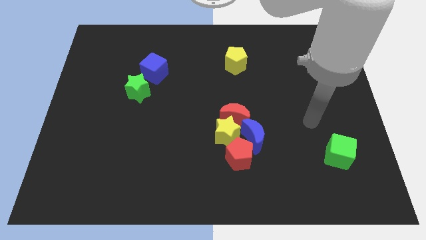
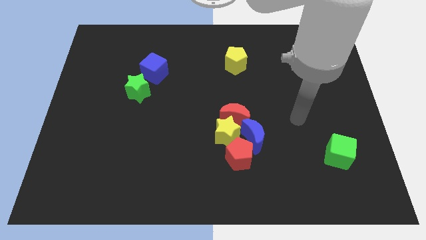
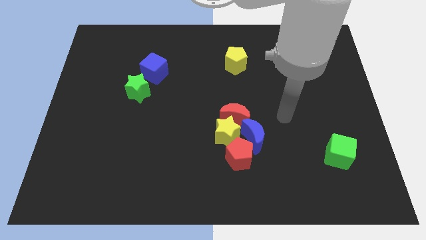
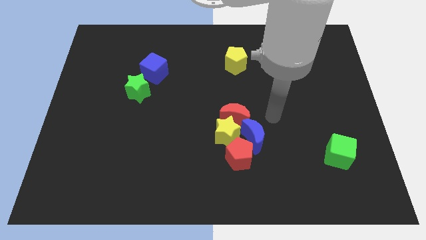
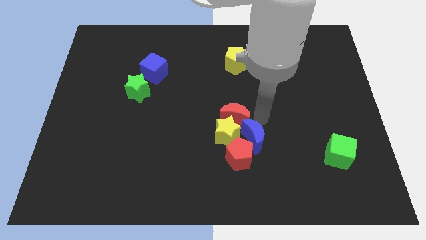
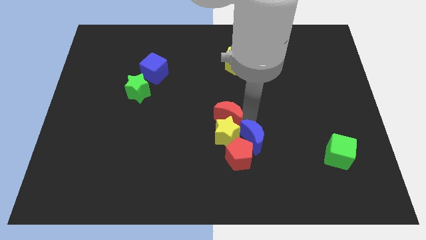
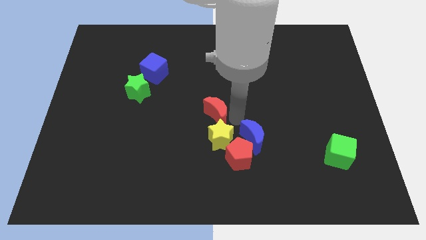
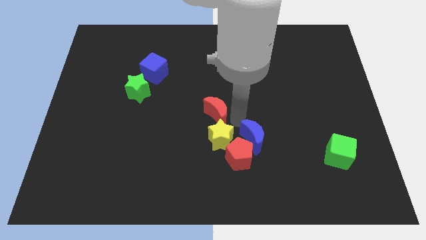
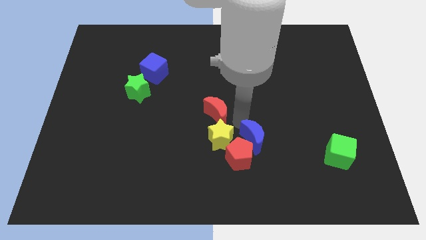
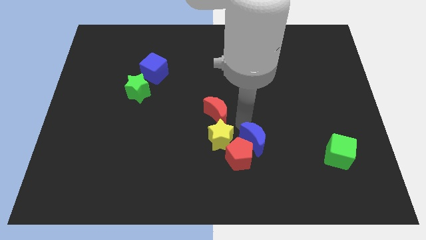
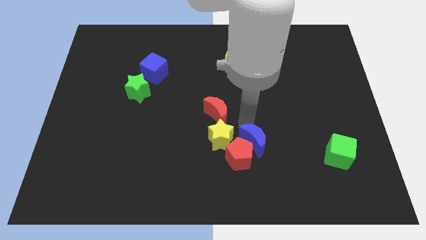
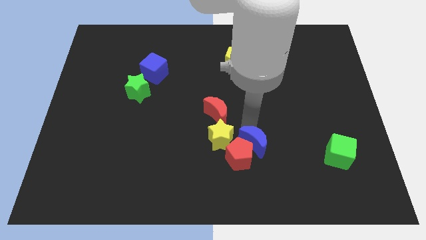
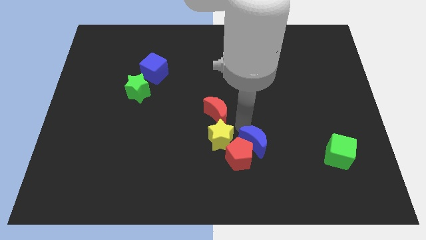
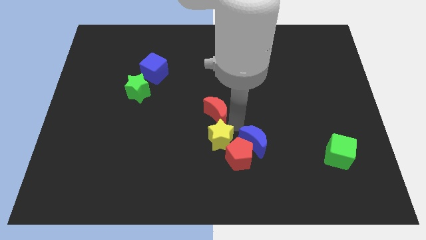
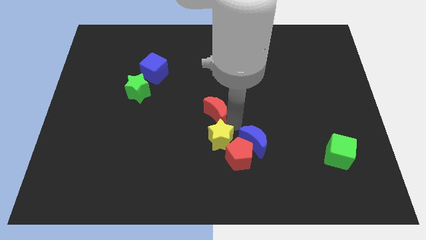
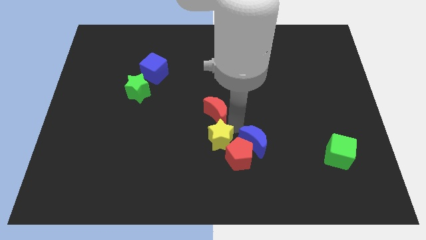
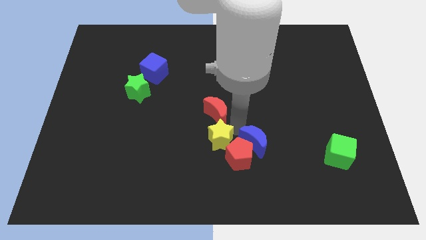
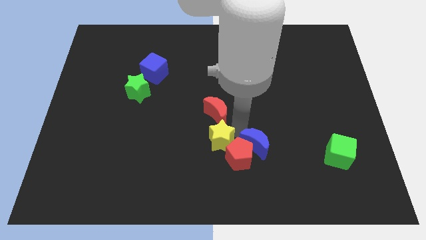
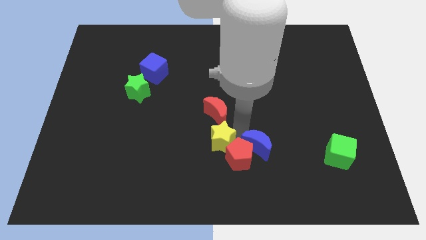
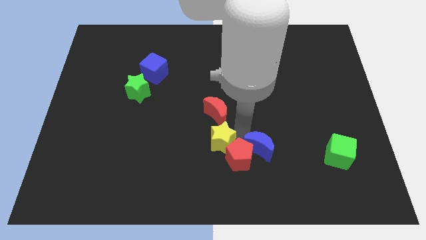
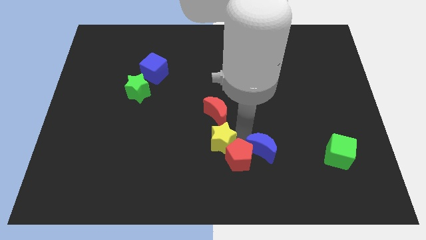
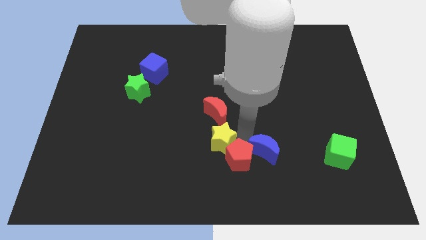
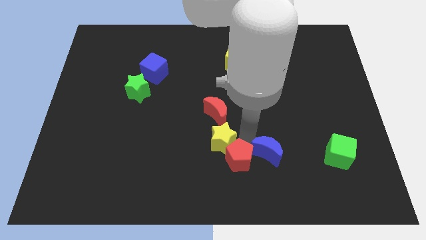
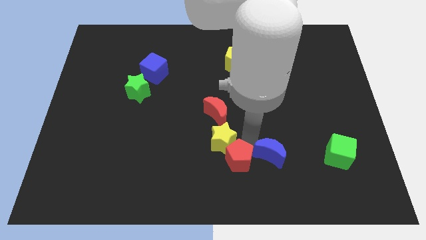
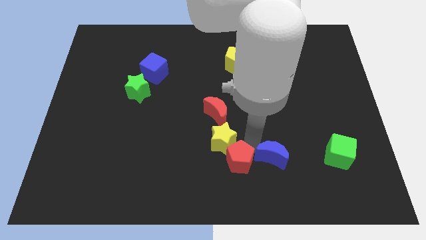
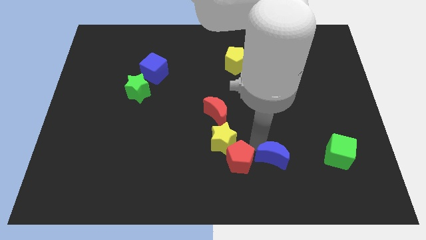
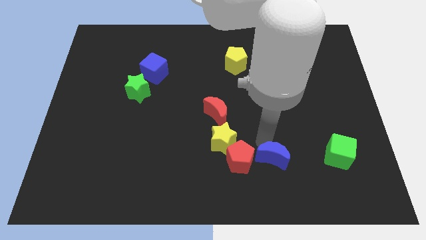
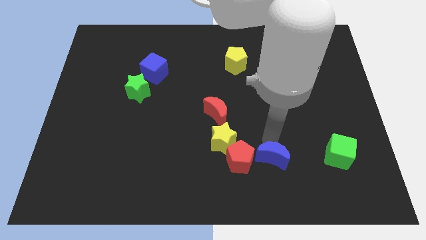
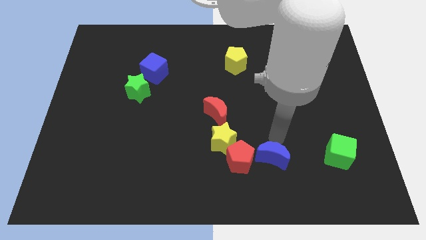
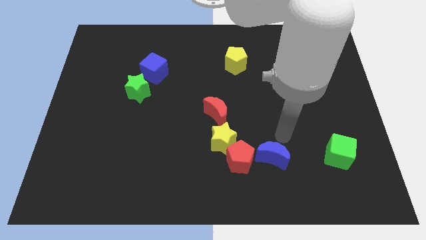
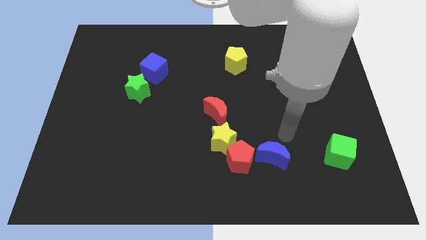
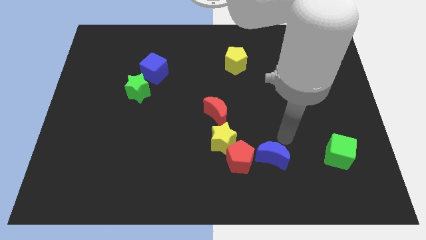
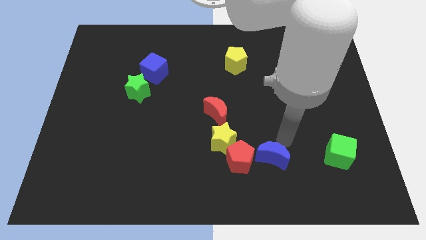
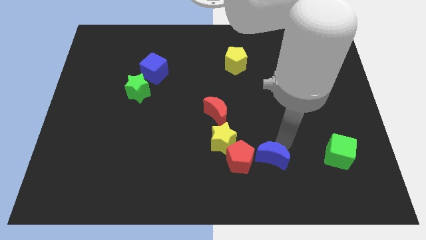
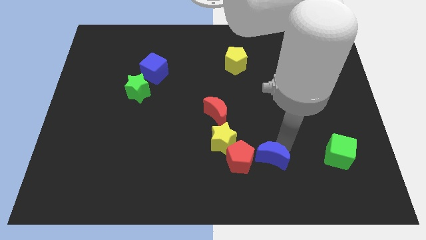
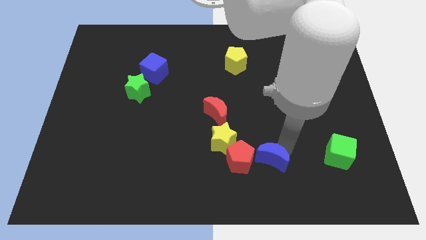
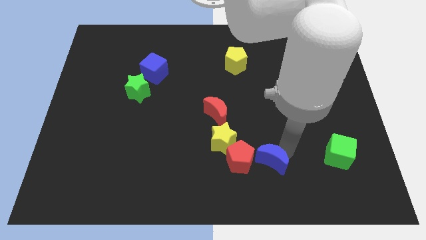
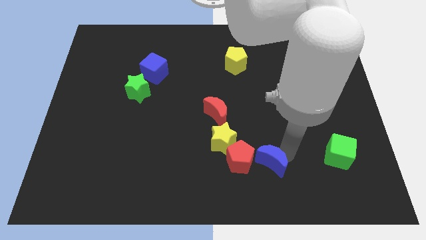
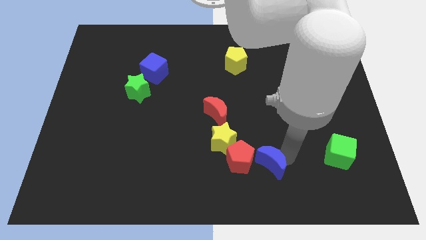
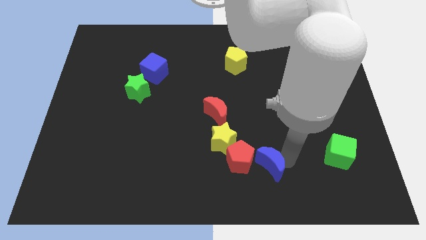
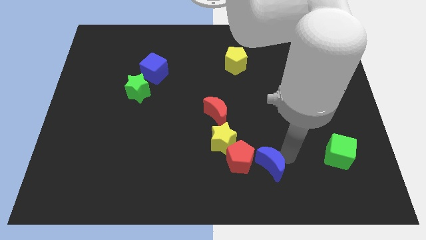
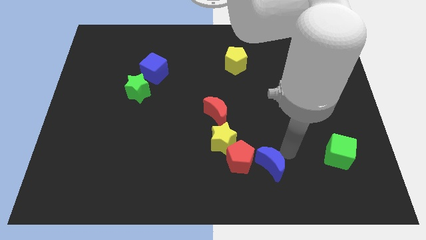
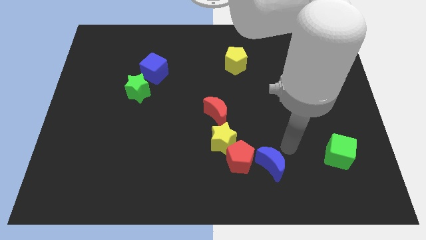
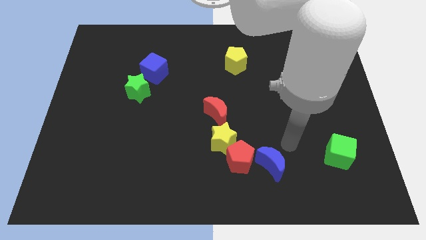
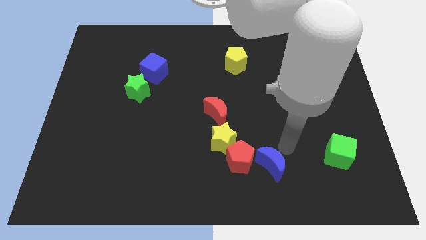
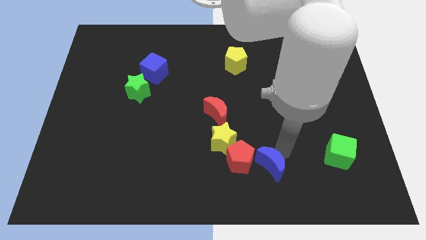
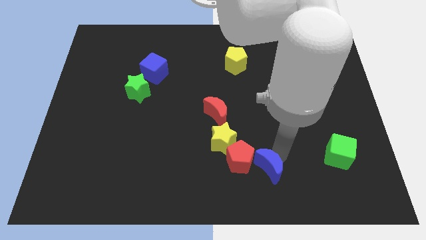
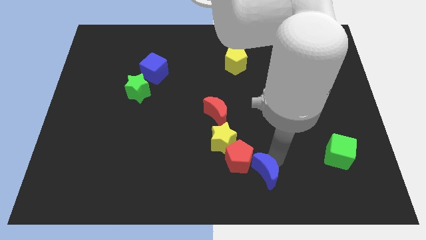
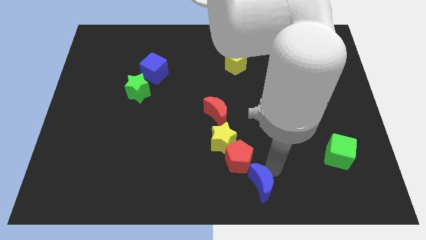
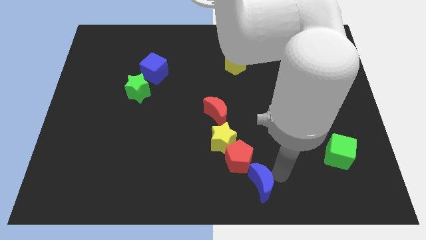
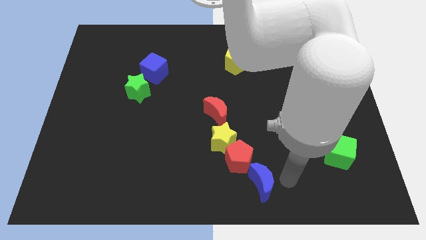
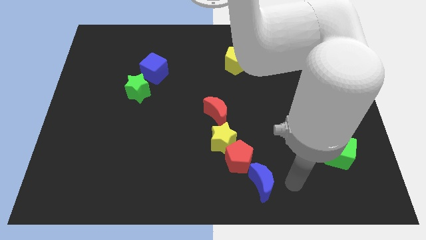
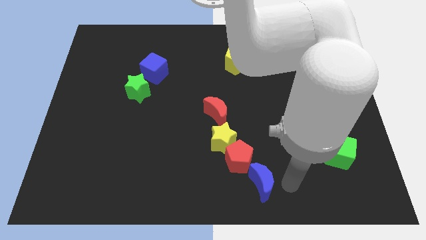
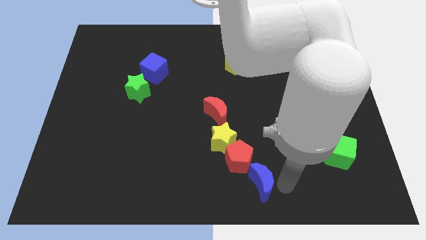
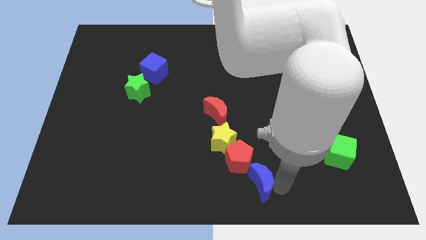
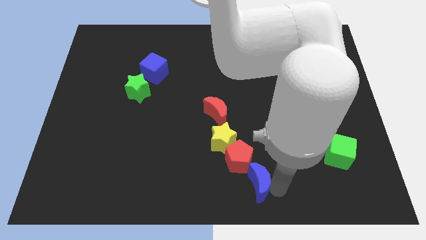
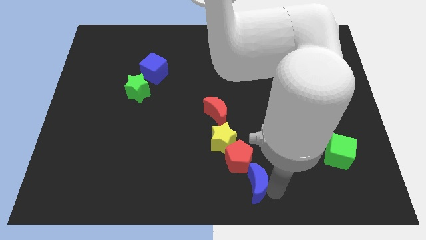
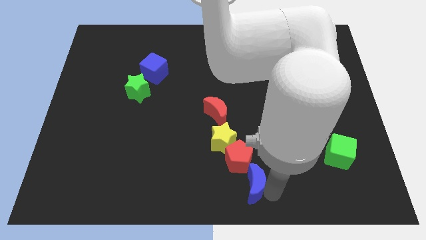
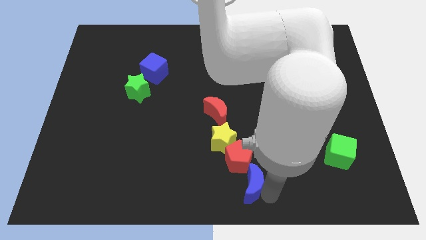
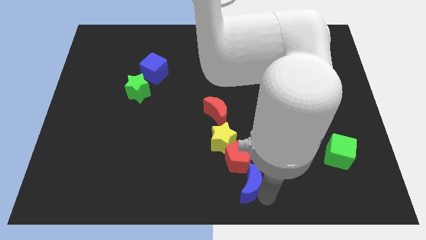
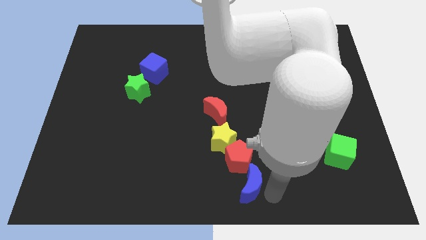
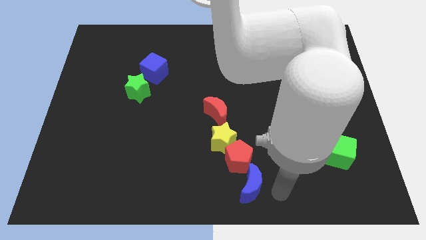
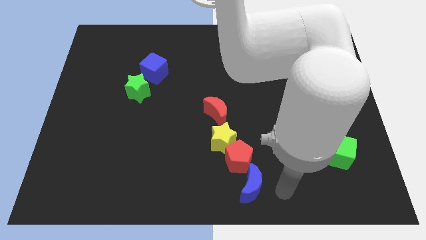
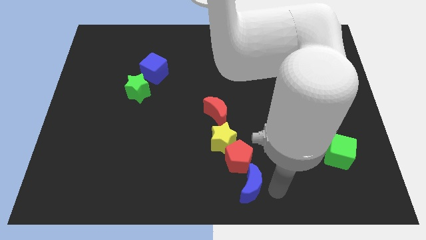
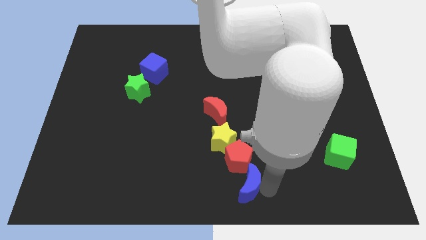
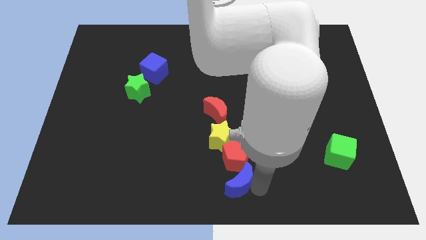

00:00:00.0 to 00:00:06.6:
move the blue moon to the bottom left of the red pentagon

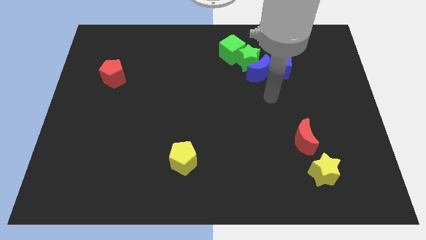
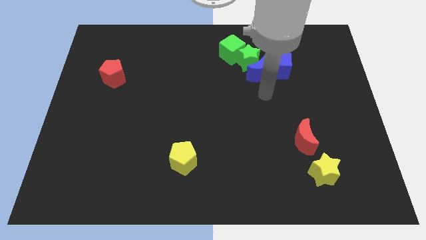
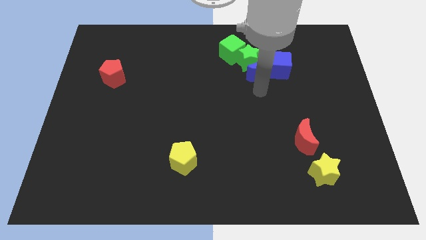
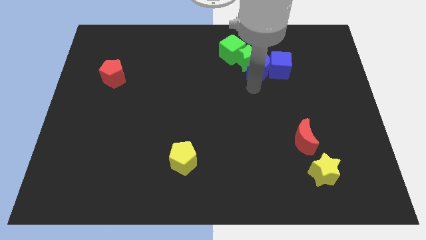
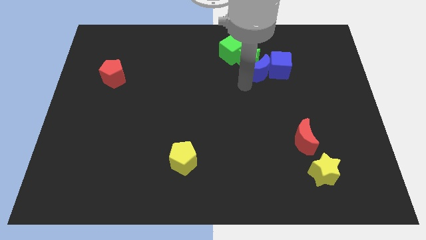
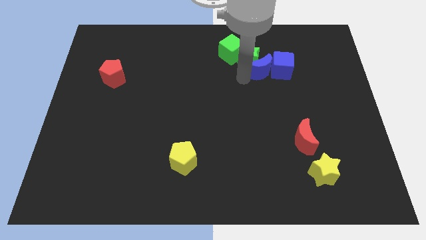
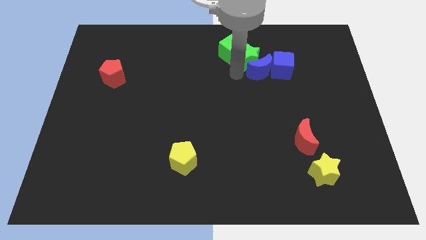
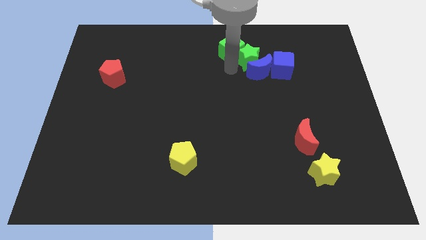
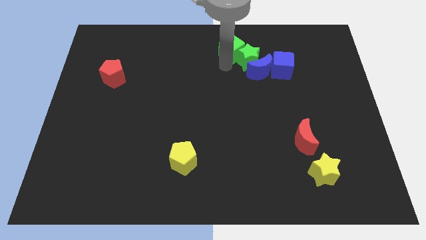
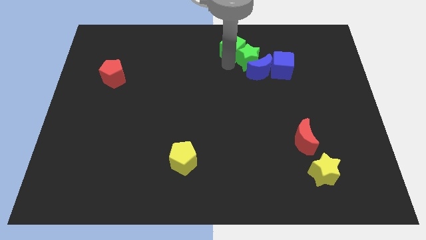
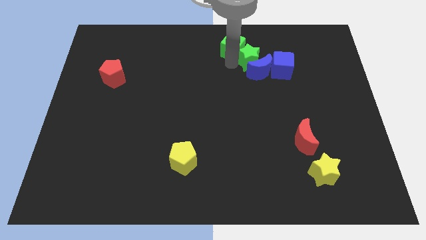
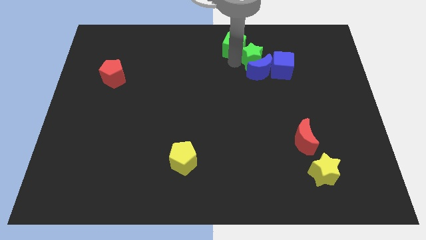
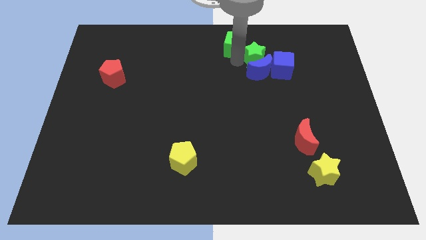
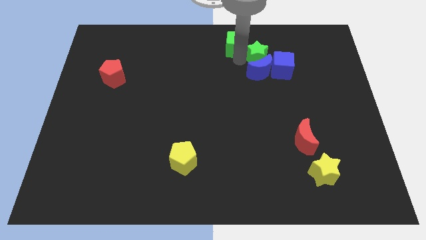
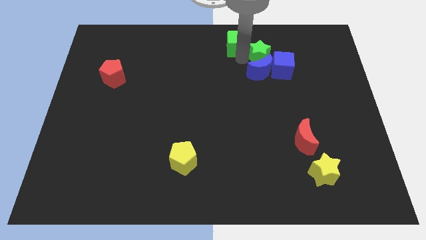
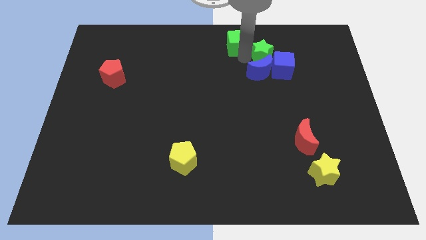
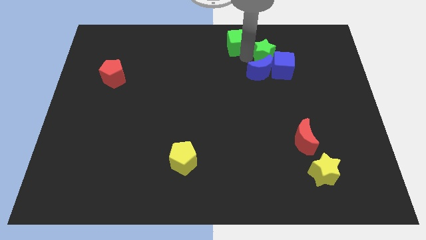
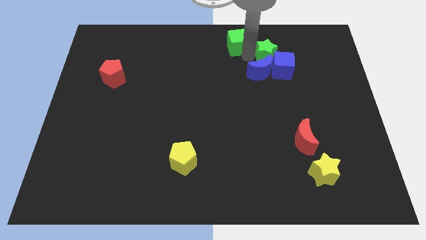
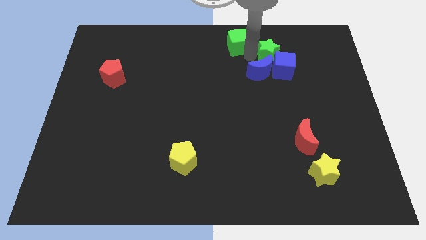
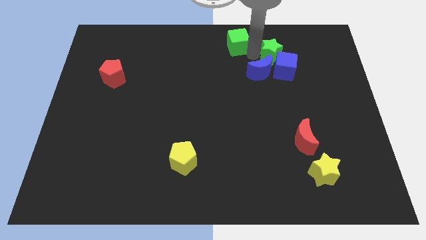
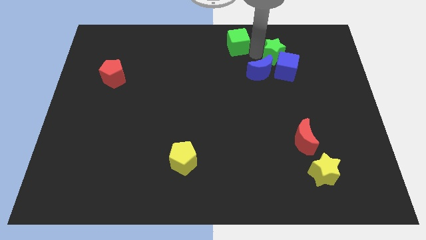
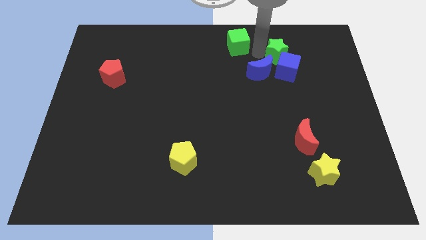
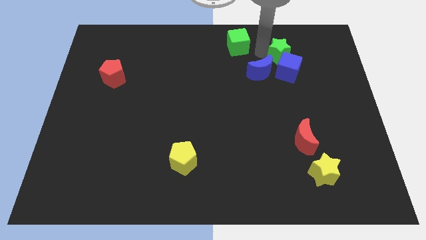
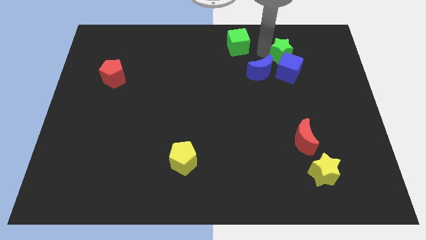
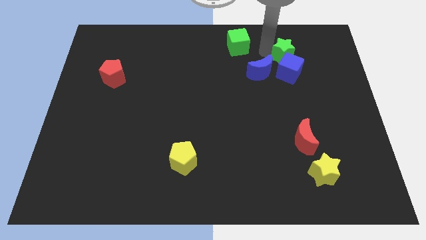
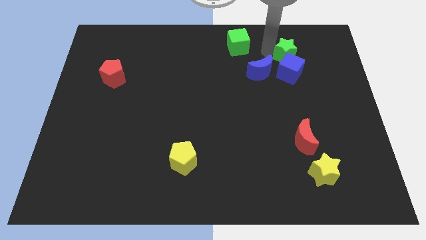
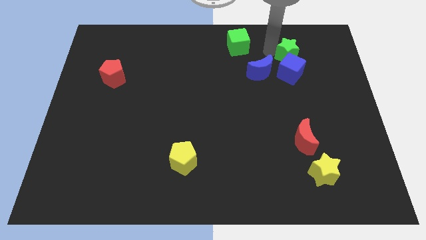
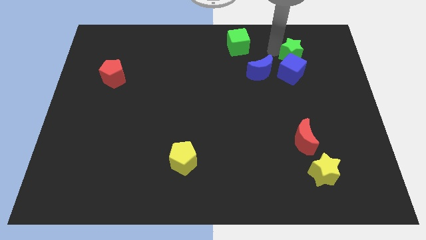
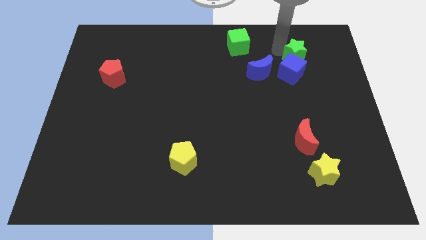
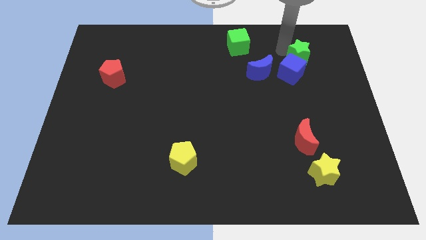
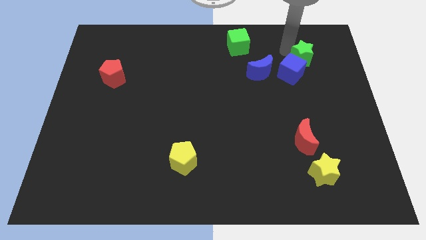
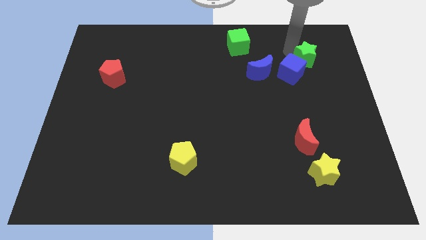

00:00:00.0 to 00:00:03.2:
put the green star just right of the blue cube
